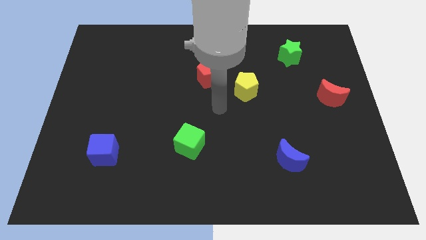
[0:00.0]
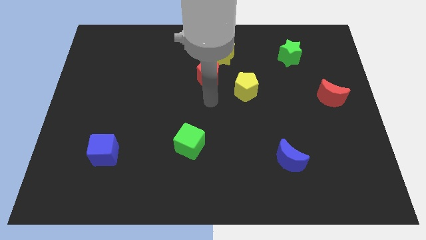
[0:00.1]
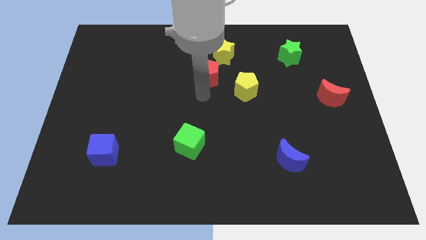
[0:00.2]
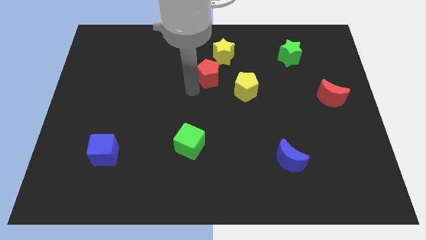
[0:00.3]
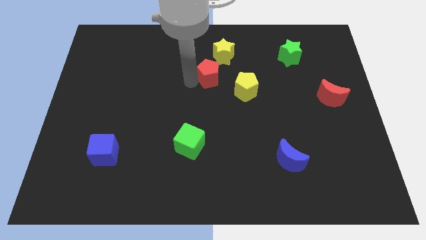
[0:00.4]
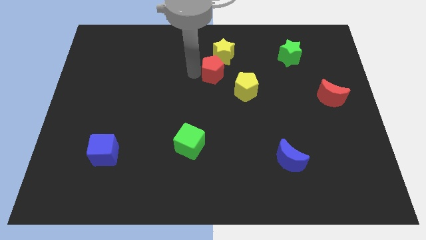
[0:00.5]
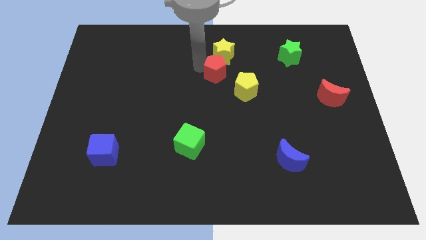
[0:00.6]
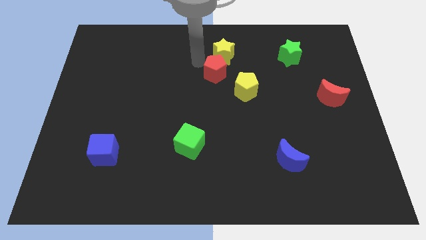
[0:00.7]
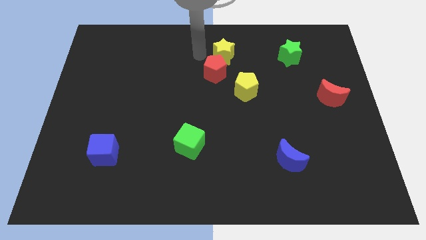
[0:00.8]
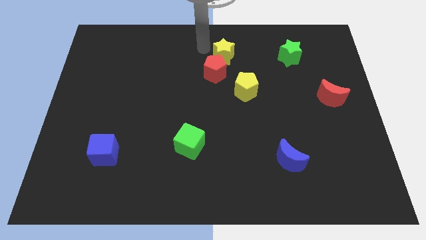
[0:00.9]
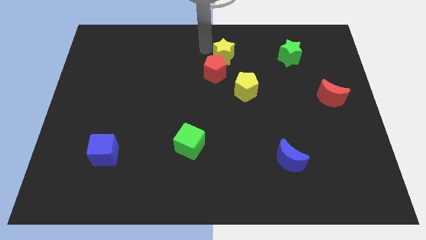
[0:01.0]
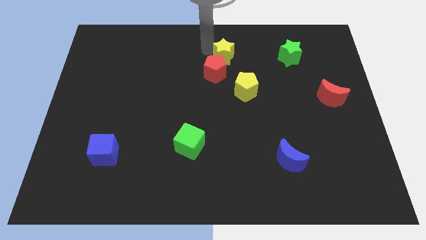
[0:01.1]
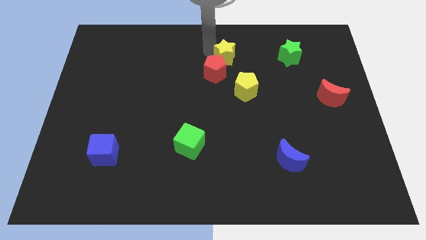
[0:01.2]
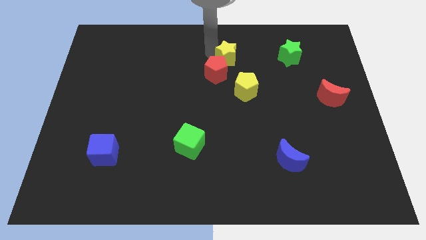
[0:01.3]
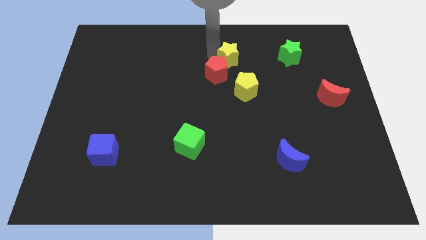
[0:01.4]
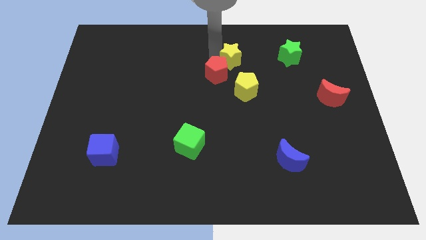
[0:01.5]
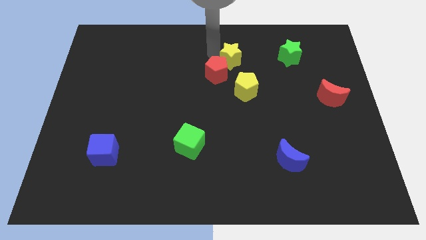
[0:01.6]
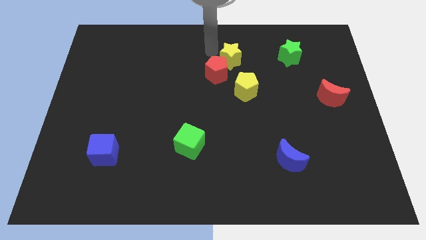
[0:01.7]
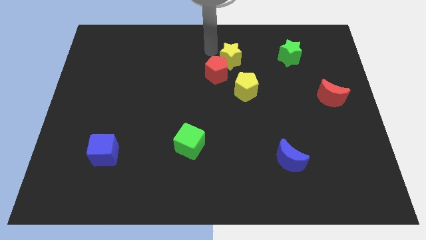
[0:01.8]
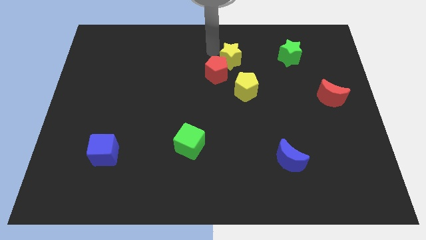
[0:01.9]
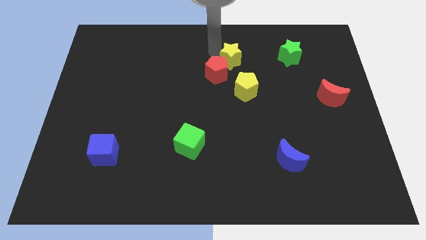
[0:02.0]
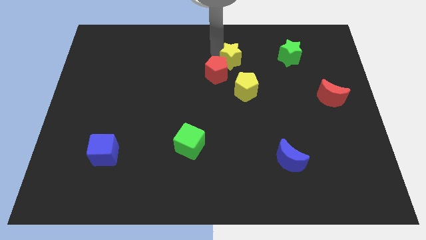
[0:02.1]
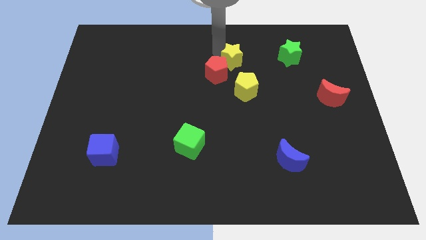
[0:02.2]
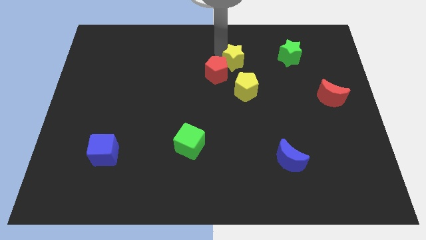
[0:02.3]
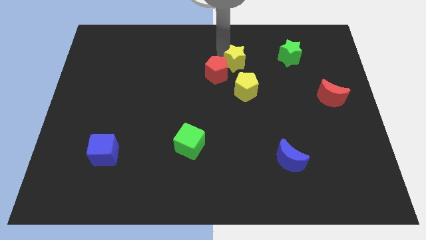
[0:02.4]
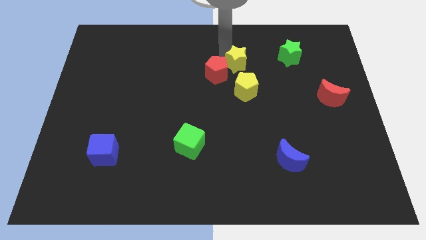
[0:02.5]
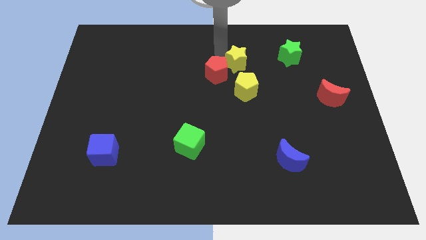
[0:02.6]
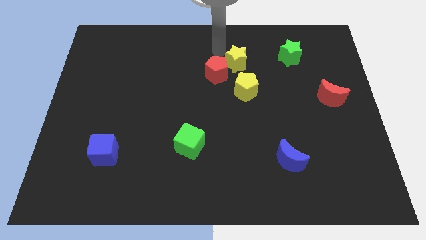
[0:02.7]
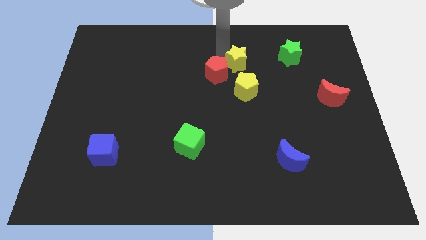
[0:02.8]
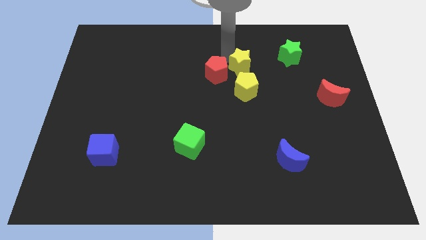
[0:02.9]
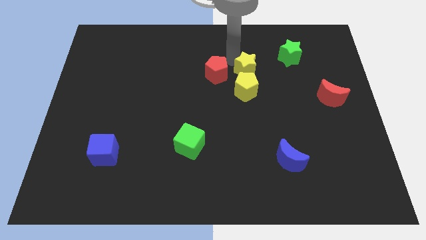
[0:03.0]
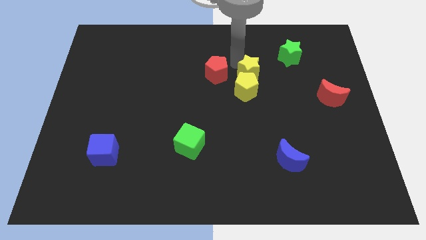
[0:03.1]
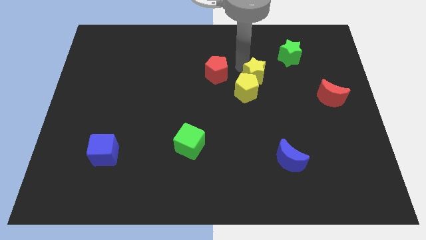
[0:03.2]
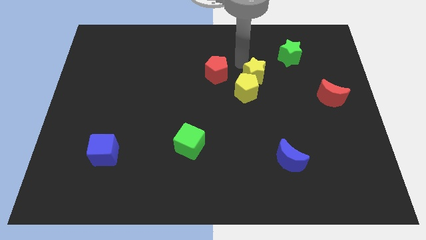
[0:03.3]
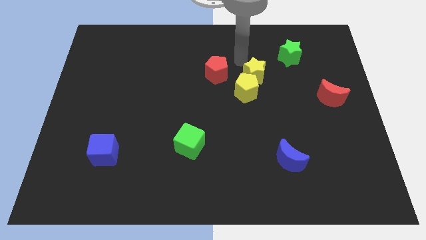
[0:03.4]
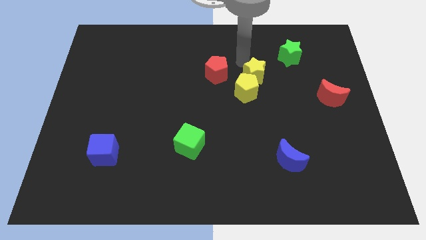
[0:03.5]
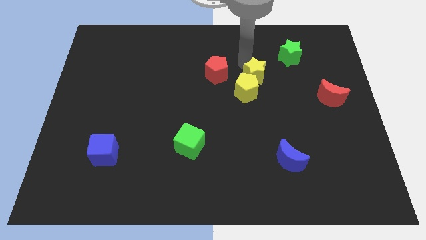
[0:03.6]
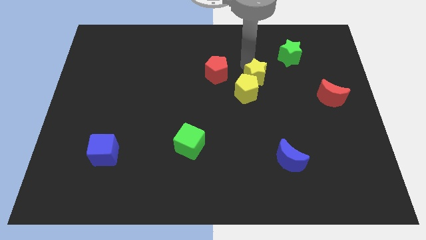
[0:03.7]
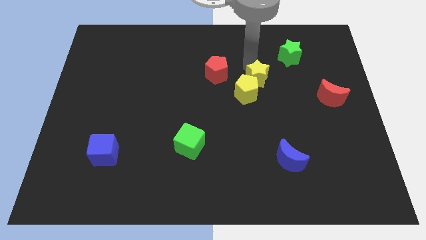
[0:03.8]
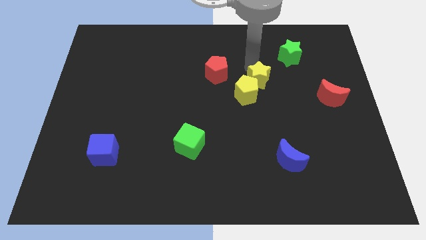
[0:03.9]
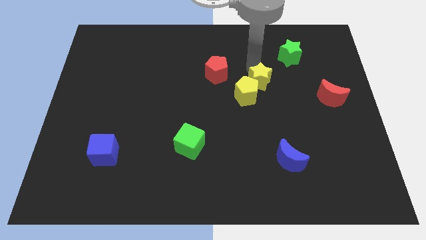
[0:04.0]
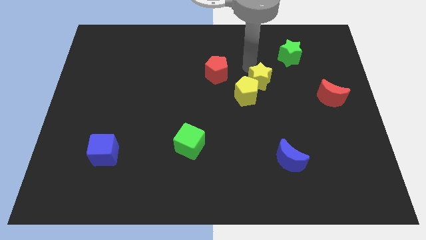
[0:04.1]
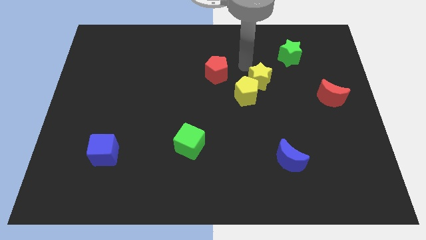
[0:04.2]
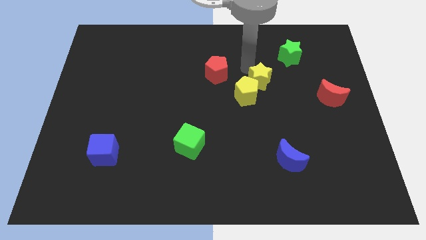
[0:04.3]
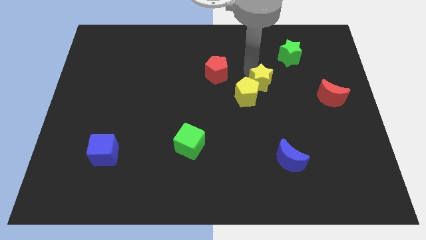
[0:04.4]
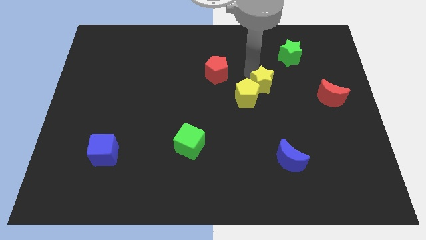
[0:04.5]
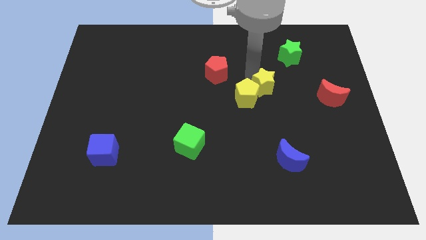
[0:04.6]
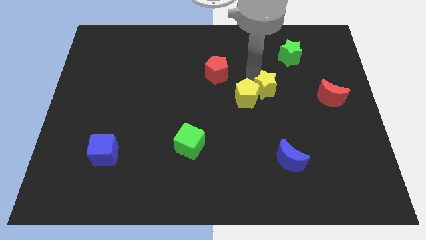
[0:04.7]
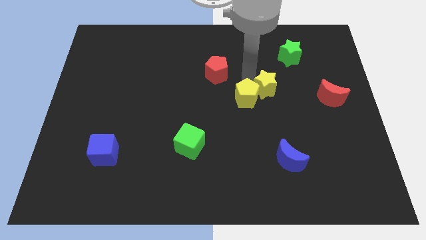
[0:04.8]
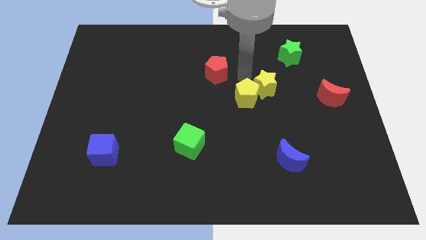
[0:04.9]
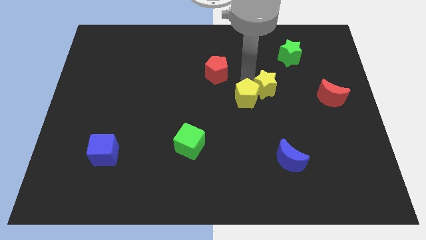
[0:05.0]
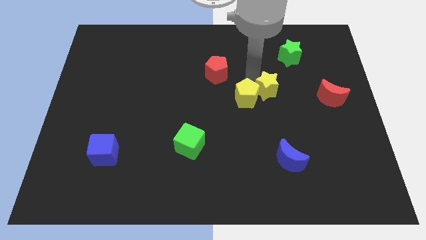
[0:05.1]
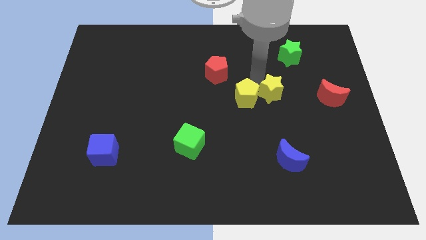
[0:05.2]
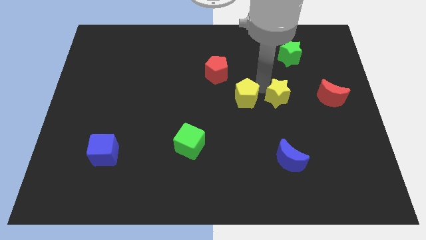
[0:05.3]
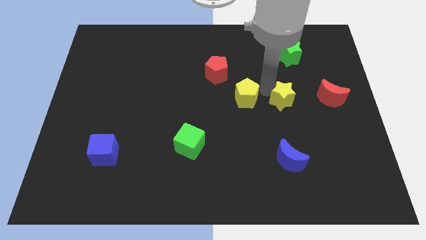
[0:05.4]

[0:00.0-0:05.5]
move the yellow star down and to the right diagonally

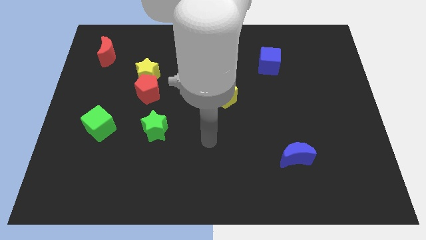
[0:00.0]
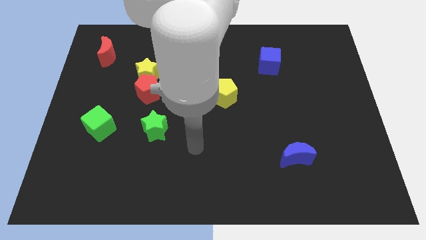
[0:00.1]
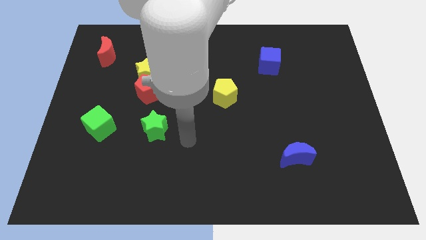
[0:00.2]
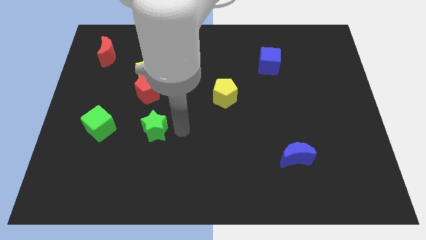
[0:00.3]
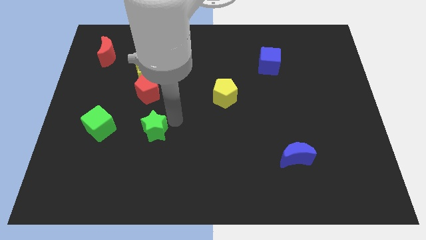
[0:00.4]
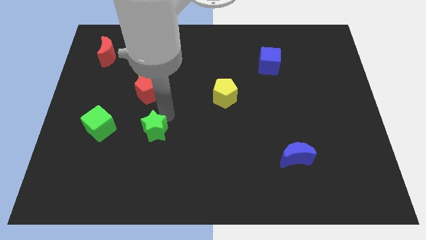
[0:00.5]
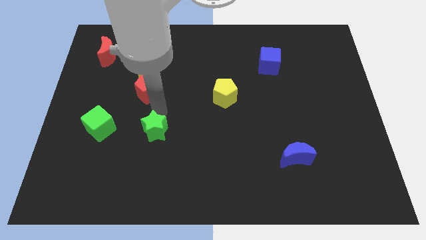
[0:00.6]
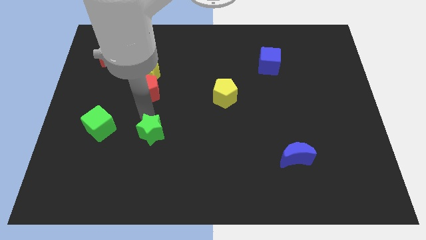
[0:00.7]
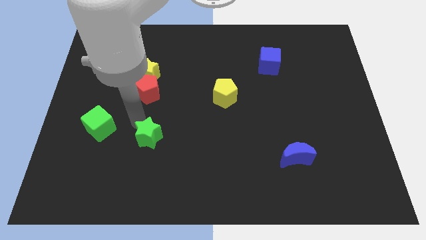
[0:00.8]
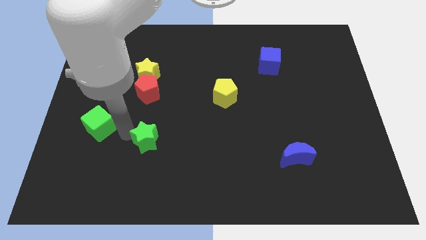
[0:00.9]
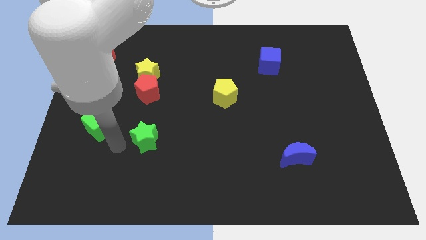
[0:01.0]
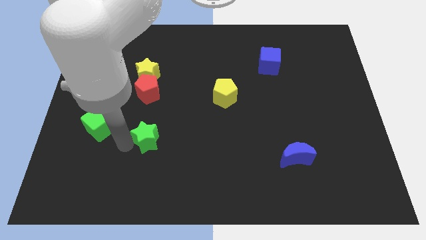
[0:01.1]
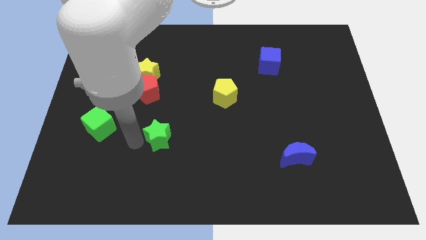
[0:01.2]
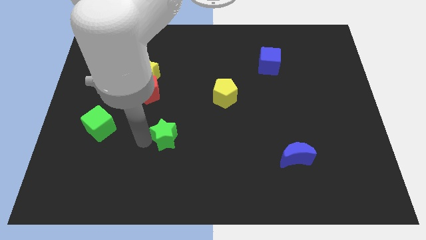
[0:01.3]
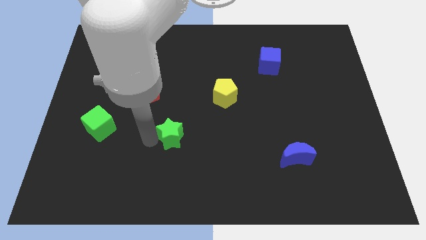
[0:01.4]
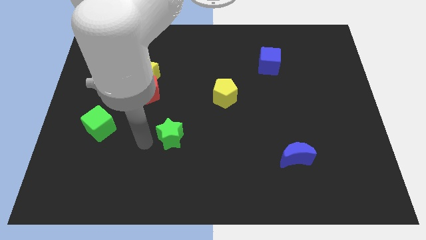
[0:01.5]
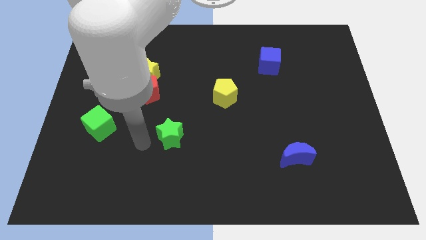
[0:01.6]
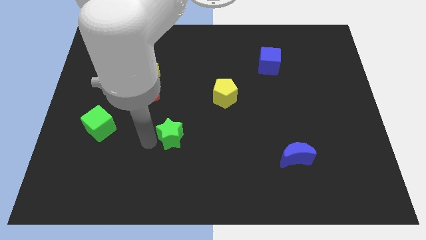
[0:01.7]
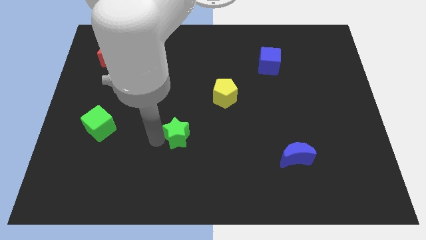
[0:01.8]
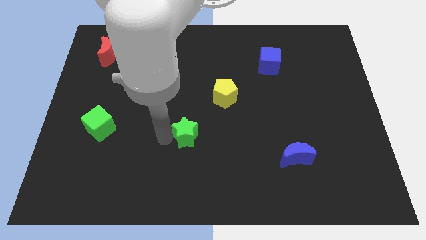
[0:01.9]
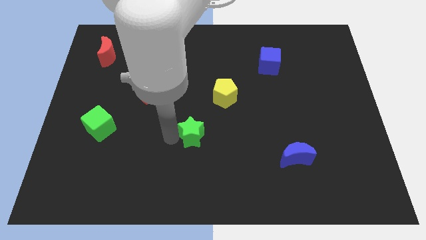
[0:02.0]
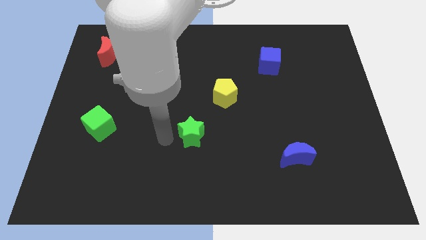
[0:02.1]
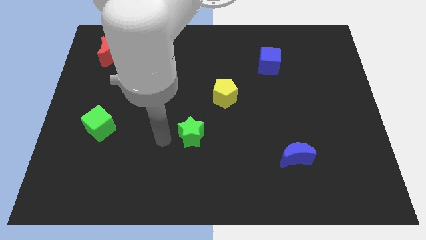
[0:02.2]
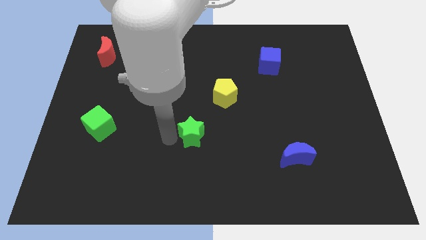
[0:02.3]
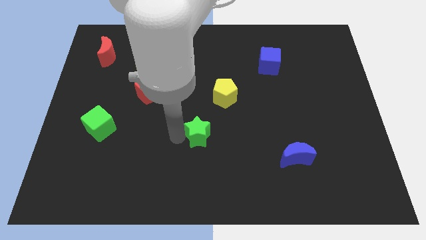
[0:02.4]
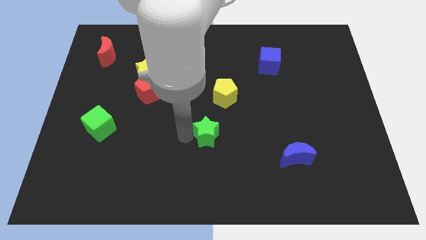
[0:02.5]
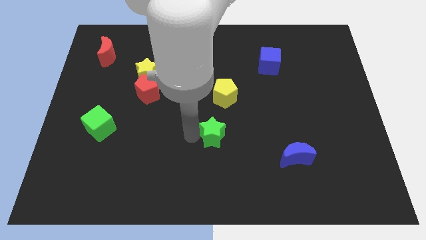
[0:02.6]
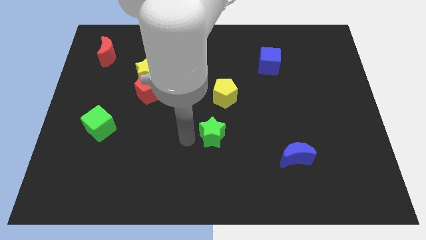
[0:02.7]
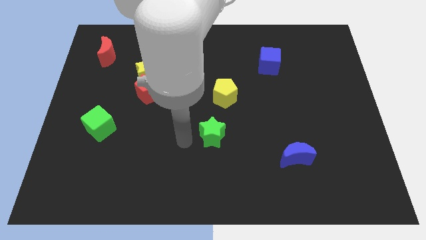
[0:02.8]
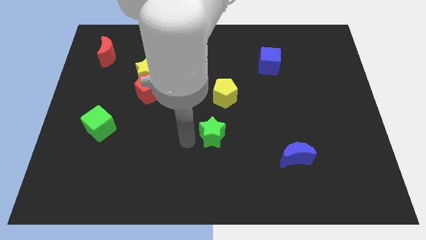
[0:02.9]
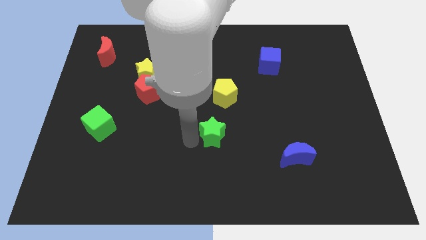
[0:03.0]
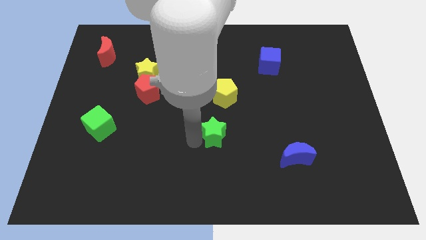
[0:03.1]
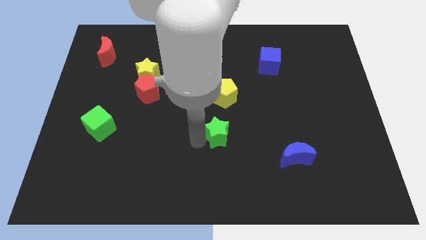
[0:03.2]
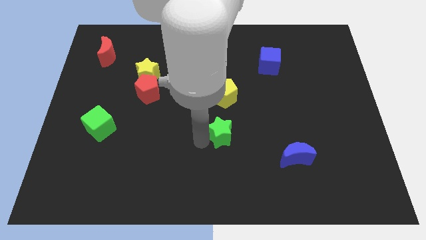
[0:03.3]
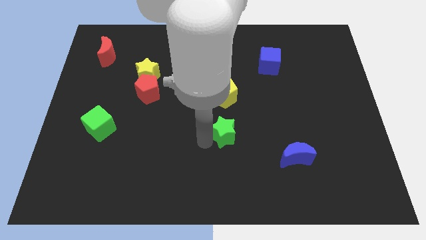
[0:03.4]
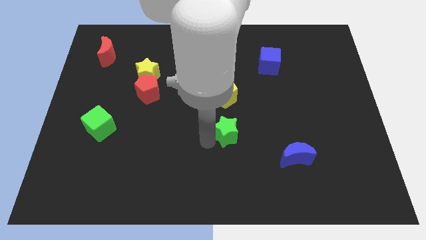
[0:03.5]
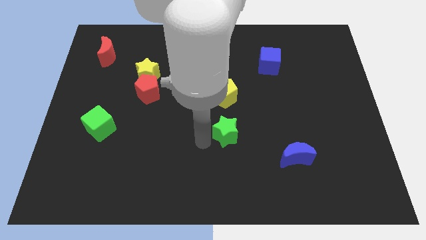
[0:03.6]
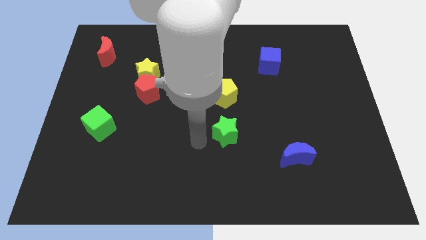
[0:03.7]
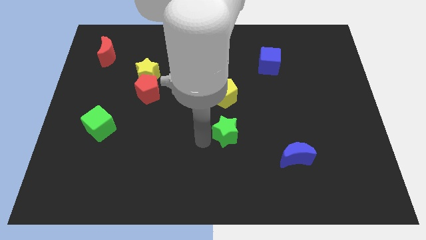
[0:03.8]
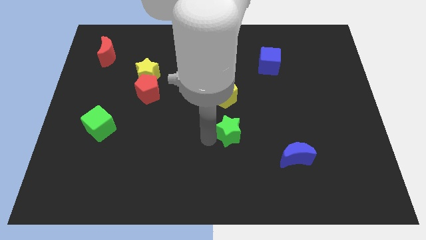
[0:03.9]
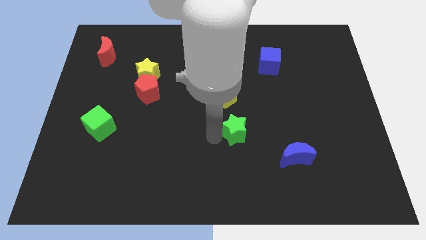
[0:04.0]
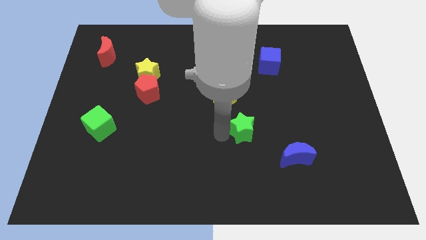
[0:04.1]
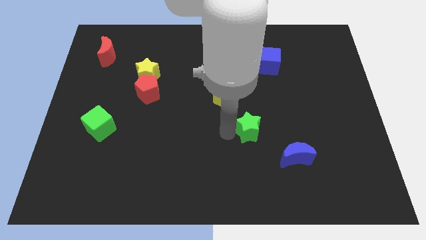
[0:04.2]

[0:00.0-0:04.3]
move the green star to the right
